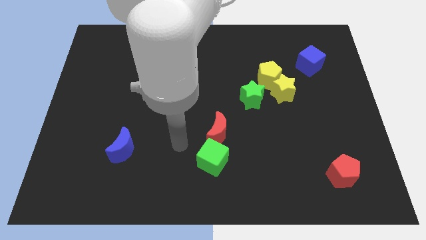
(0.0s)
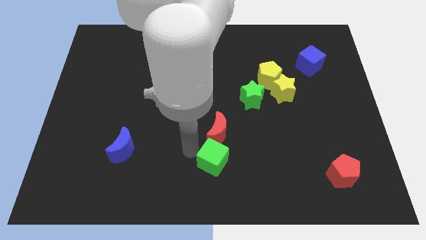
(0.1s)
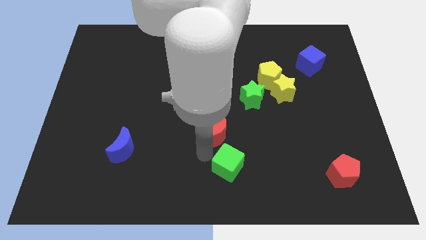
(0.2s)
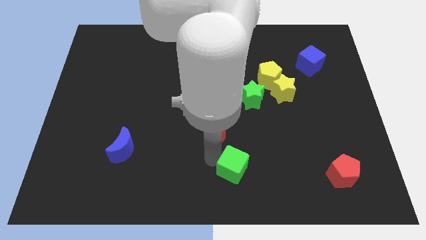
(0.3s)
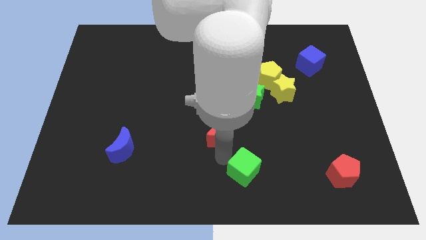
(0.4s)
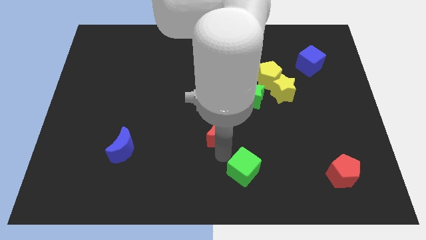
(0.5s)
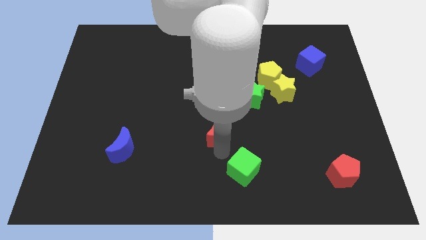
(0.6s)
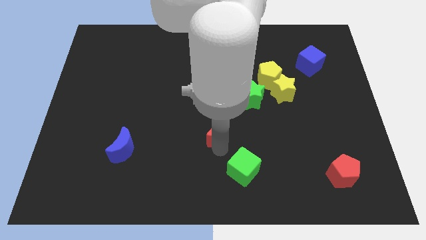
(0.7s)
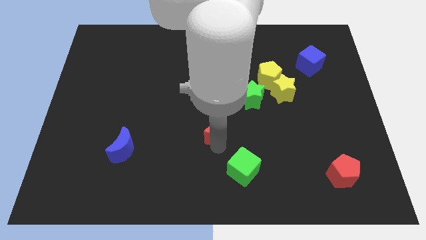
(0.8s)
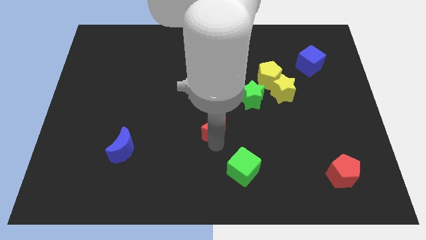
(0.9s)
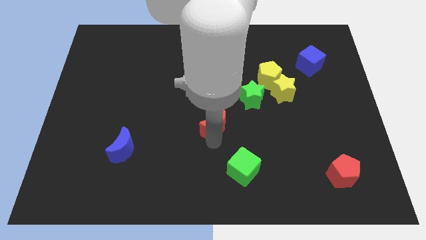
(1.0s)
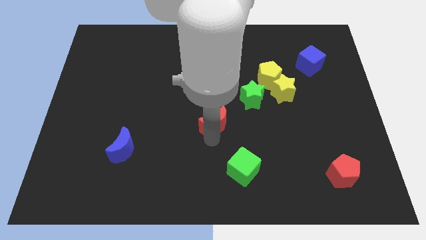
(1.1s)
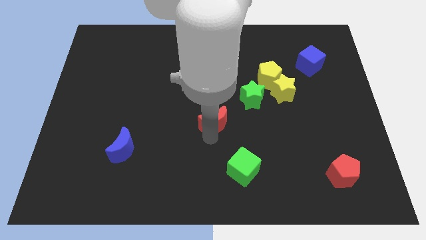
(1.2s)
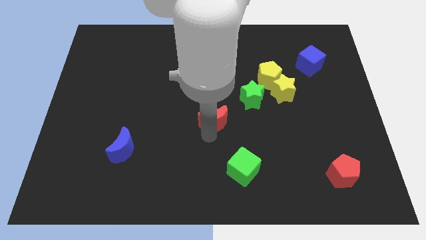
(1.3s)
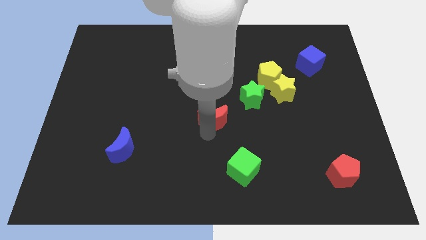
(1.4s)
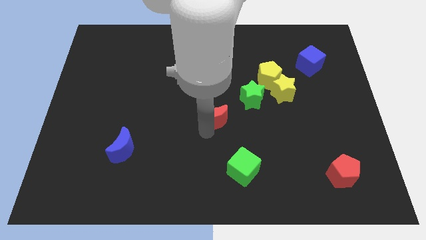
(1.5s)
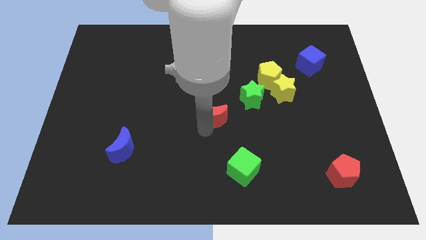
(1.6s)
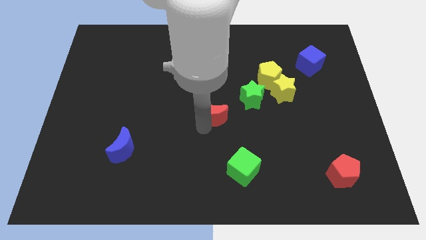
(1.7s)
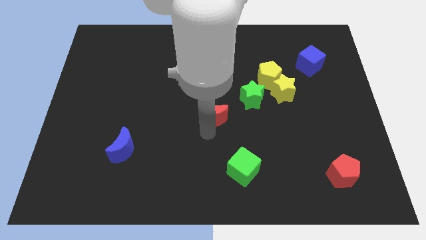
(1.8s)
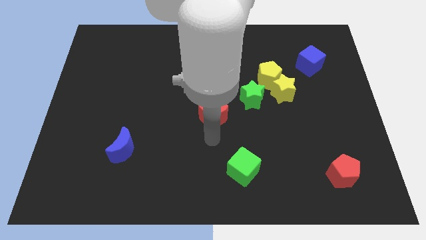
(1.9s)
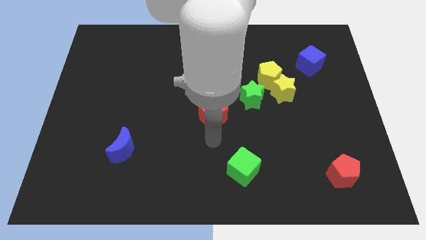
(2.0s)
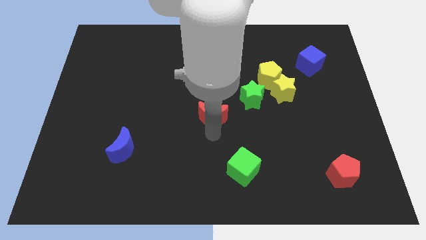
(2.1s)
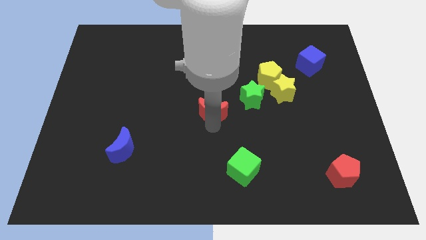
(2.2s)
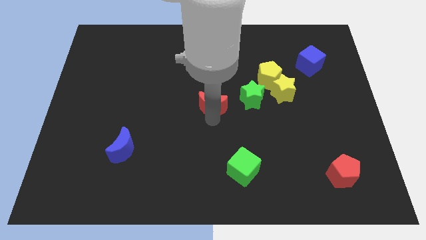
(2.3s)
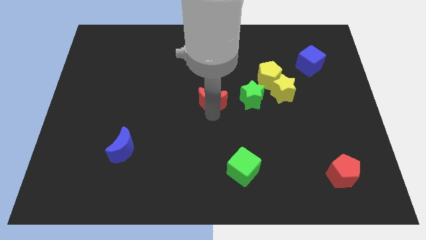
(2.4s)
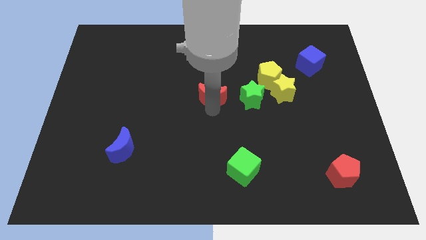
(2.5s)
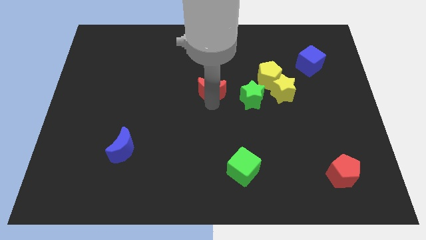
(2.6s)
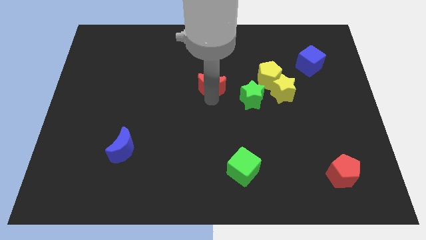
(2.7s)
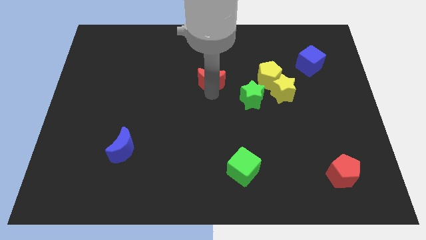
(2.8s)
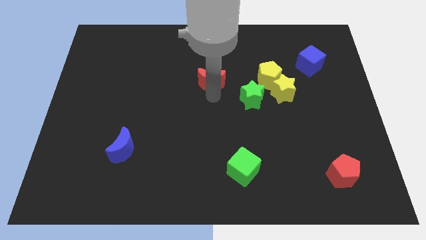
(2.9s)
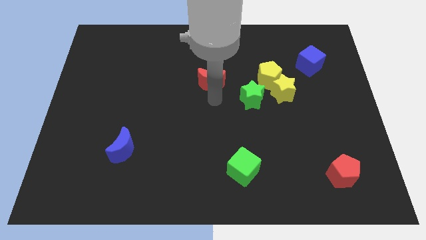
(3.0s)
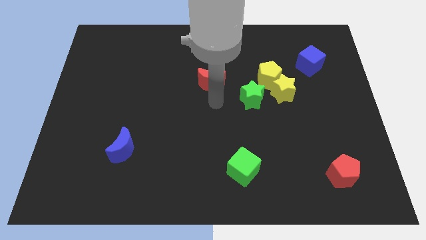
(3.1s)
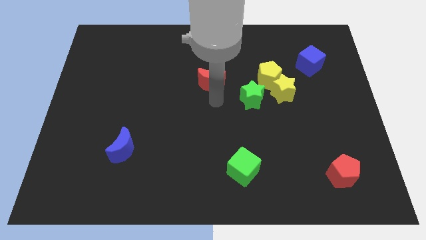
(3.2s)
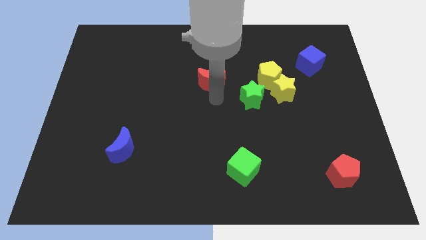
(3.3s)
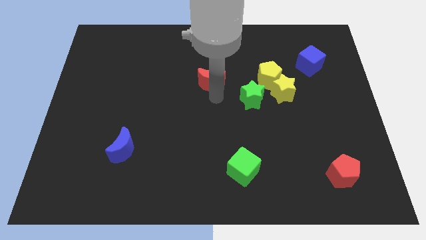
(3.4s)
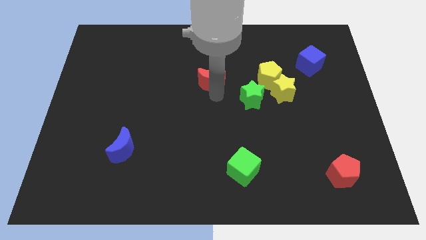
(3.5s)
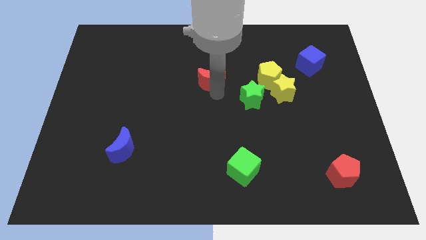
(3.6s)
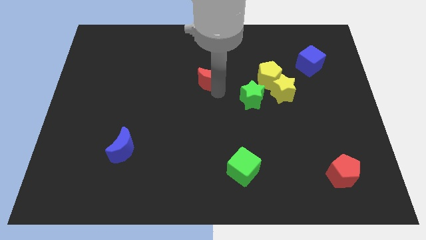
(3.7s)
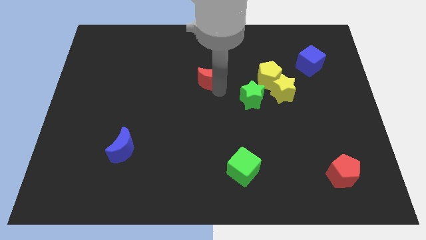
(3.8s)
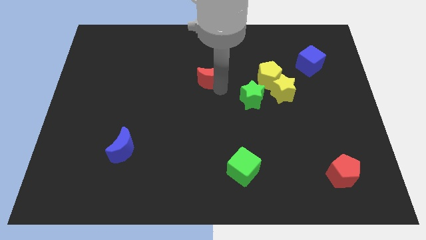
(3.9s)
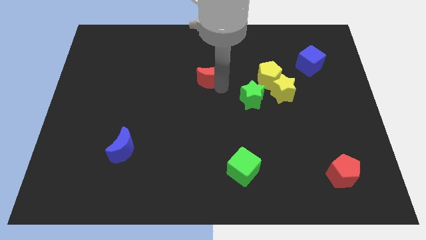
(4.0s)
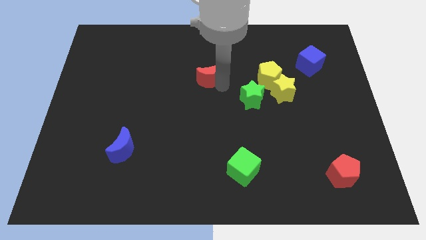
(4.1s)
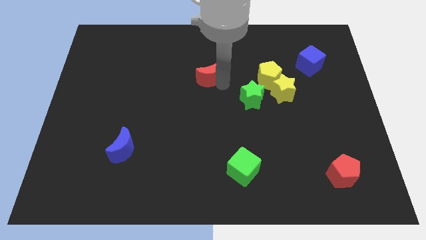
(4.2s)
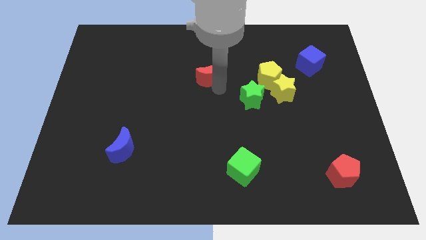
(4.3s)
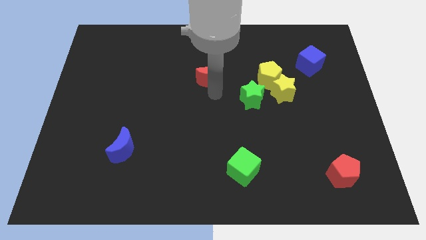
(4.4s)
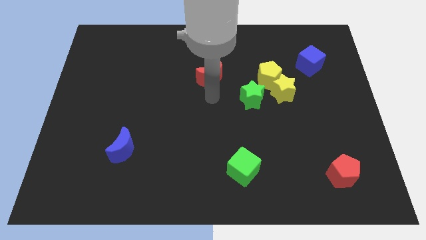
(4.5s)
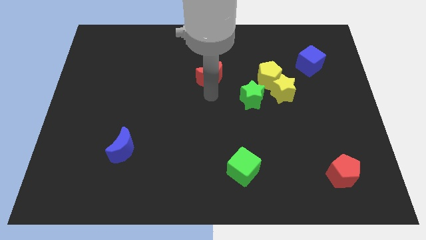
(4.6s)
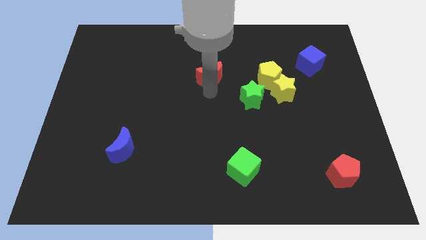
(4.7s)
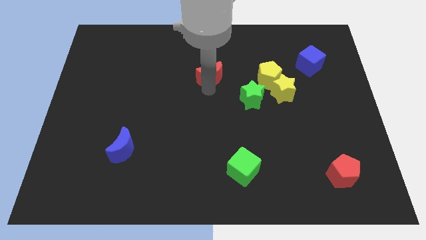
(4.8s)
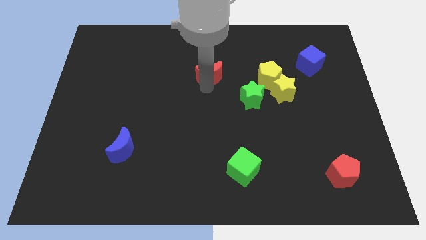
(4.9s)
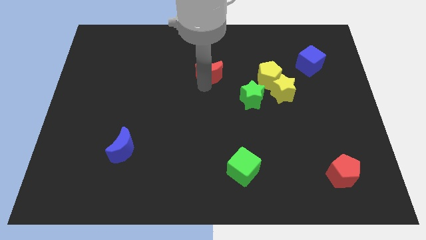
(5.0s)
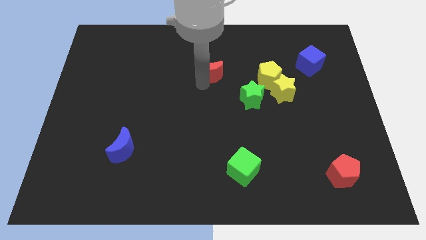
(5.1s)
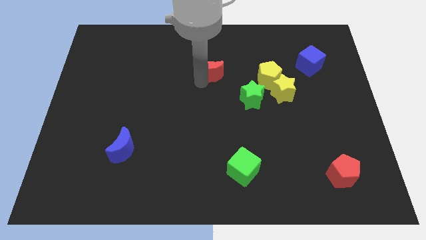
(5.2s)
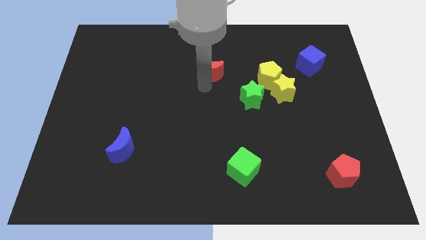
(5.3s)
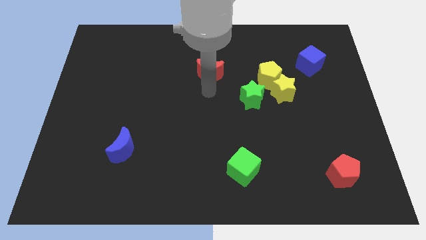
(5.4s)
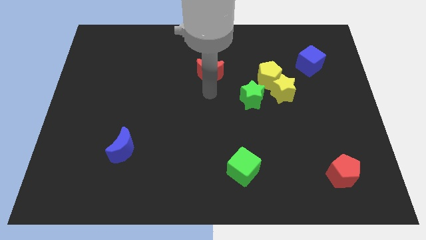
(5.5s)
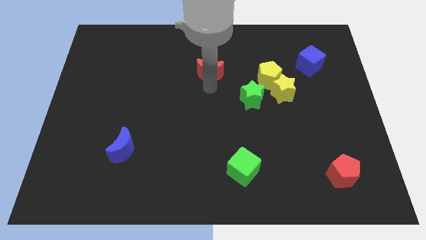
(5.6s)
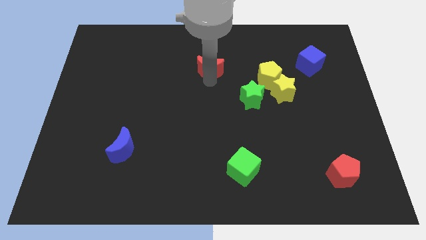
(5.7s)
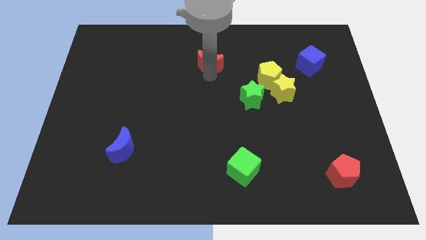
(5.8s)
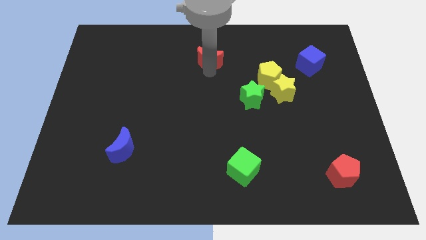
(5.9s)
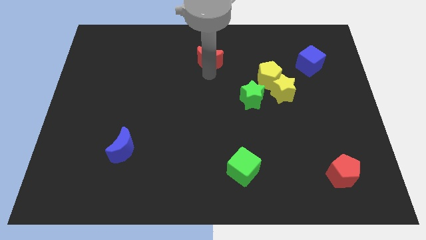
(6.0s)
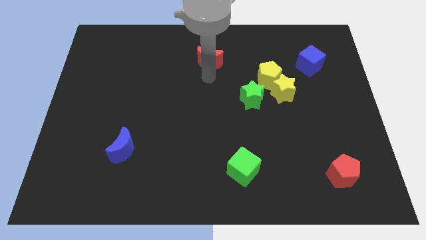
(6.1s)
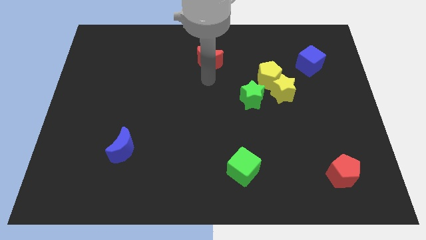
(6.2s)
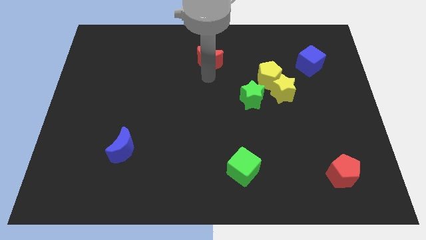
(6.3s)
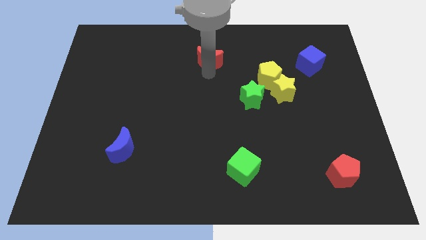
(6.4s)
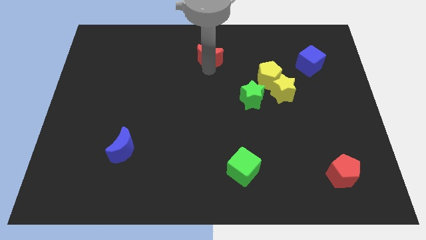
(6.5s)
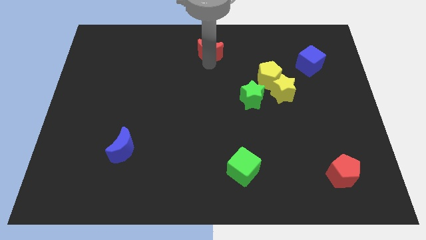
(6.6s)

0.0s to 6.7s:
push the red moon to the top
